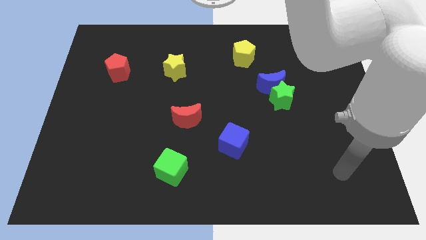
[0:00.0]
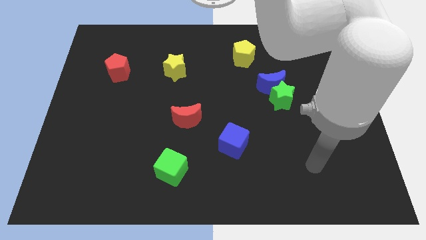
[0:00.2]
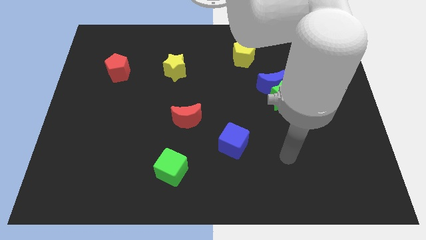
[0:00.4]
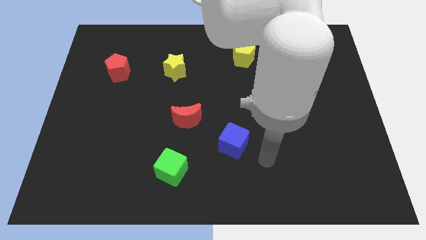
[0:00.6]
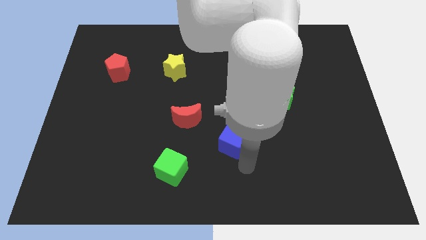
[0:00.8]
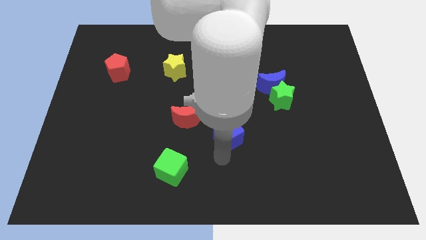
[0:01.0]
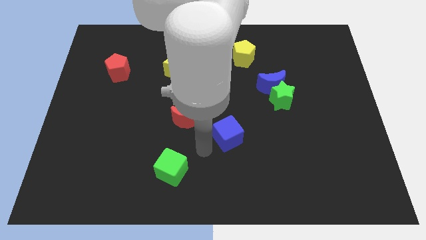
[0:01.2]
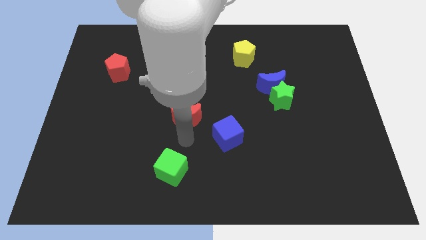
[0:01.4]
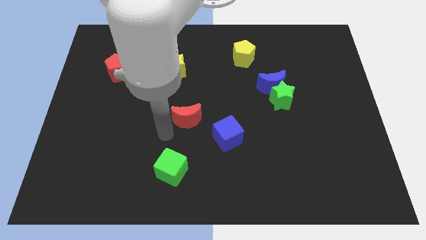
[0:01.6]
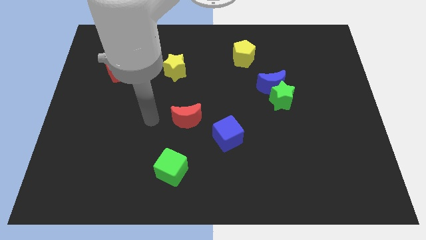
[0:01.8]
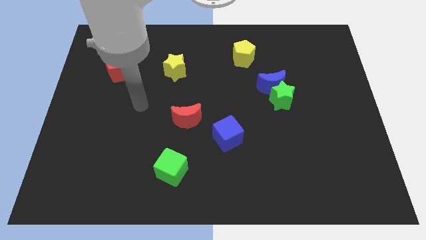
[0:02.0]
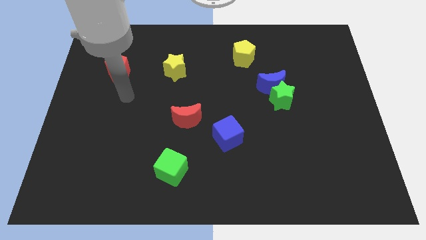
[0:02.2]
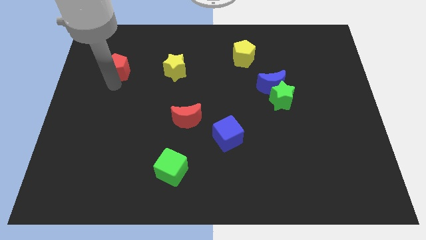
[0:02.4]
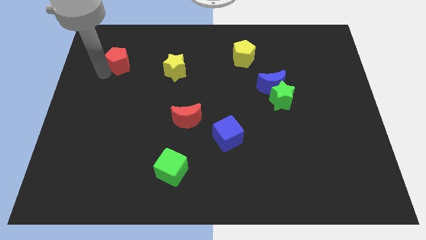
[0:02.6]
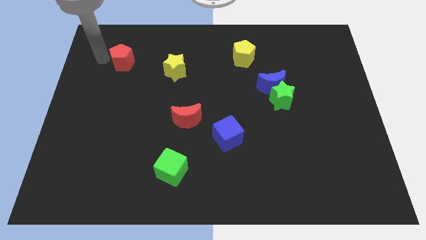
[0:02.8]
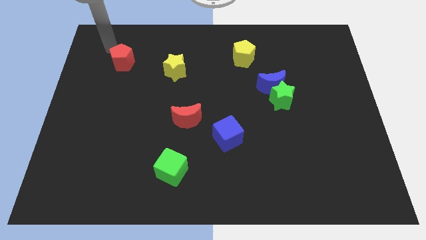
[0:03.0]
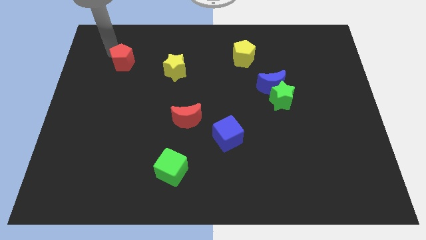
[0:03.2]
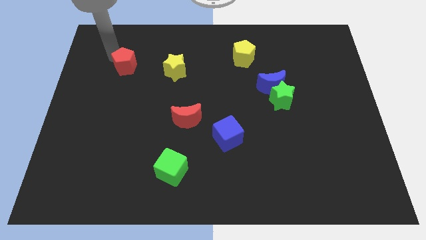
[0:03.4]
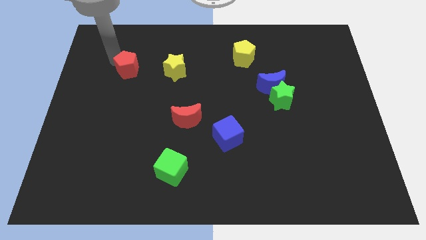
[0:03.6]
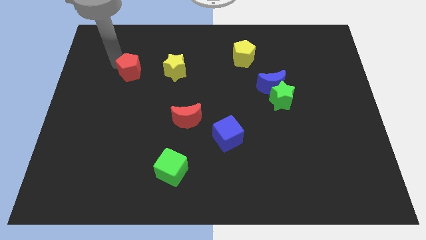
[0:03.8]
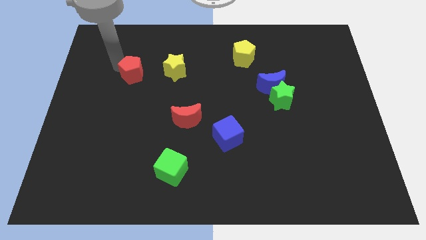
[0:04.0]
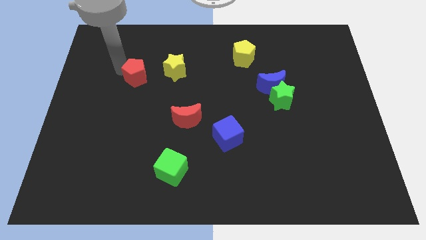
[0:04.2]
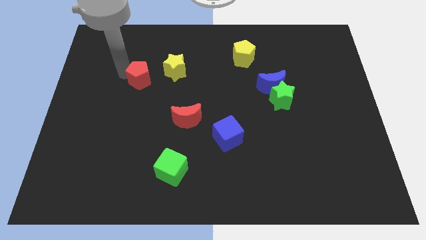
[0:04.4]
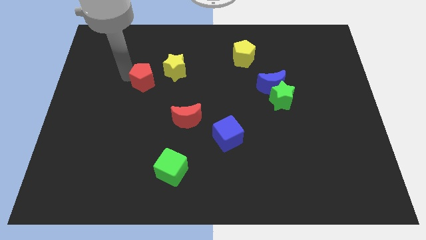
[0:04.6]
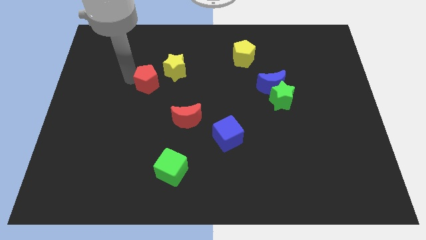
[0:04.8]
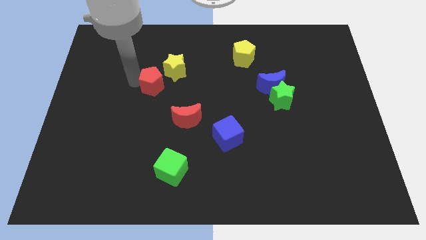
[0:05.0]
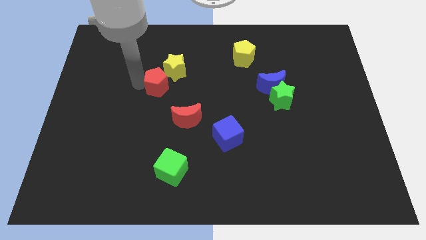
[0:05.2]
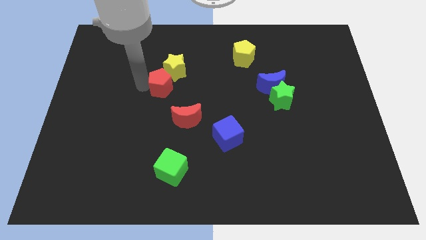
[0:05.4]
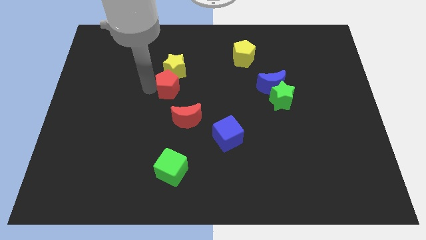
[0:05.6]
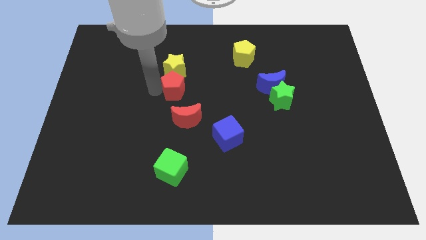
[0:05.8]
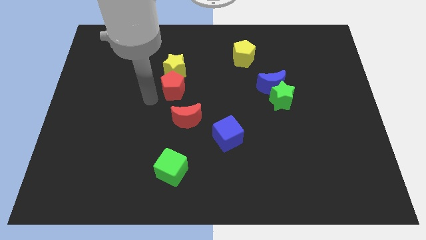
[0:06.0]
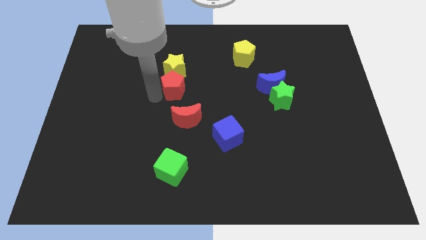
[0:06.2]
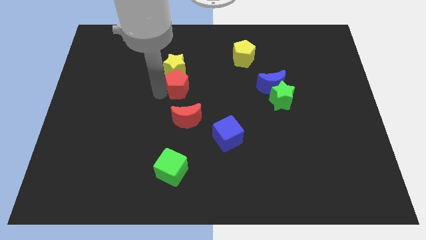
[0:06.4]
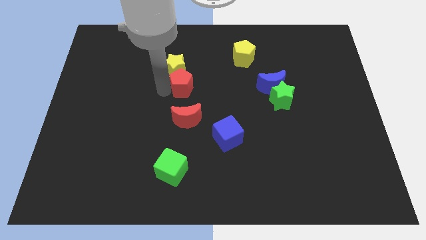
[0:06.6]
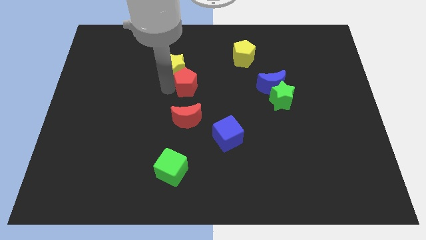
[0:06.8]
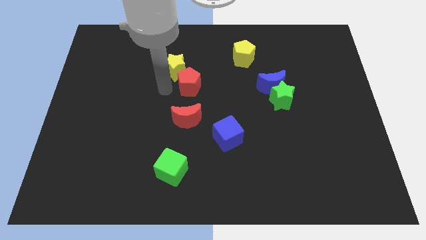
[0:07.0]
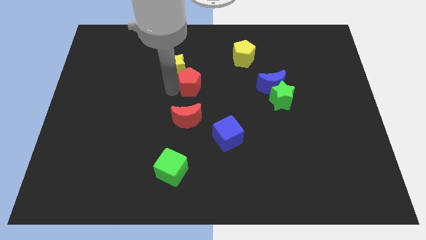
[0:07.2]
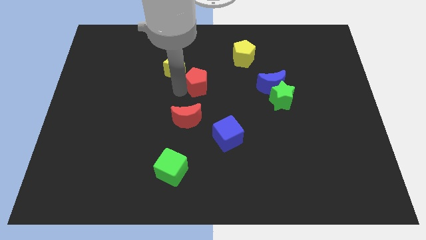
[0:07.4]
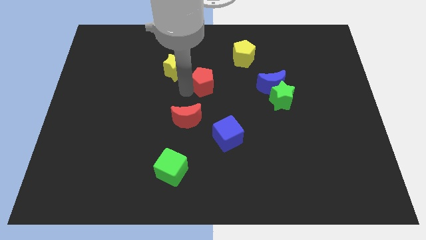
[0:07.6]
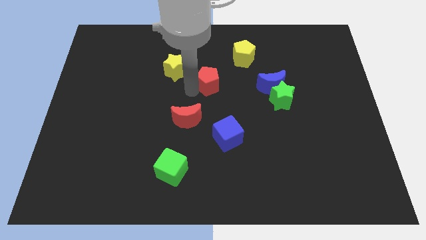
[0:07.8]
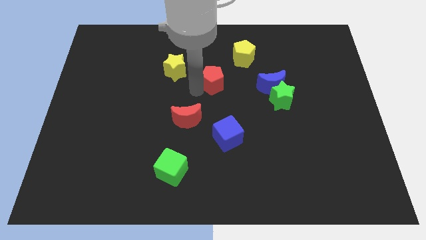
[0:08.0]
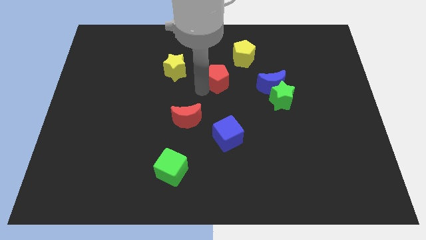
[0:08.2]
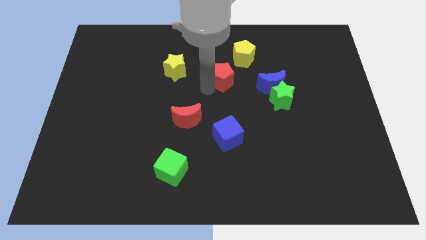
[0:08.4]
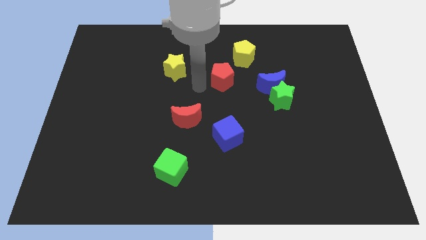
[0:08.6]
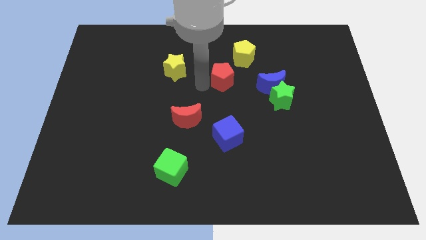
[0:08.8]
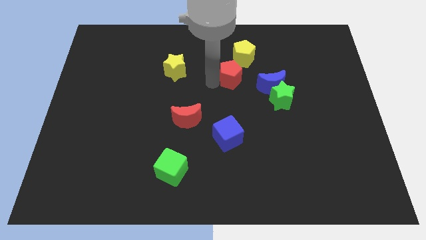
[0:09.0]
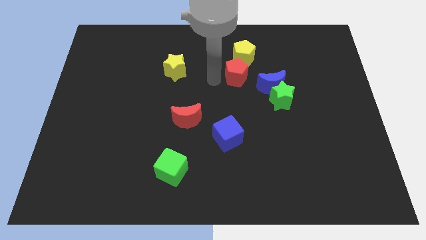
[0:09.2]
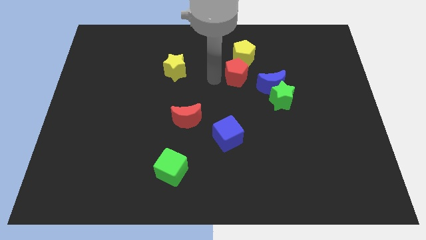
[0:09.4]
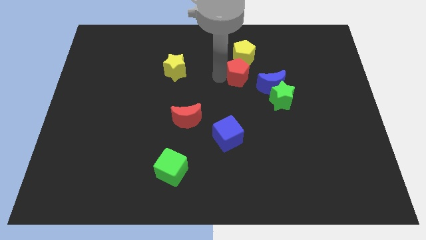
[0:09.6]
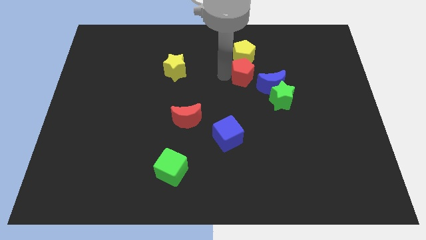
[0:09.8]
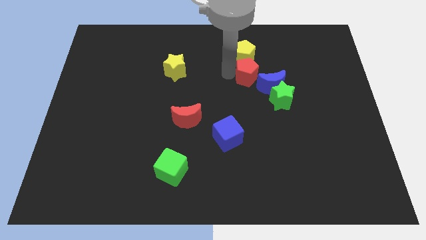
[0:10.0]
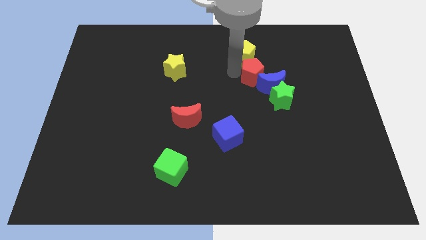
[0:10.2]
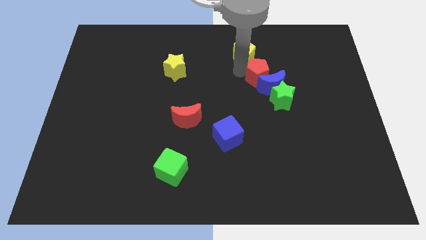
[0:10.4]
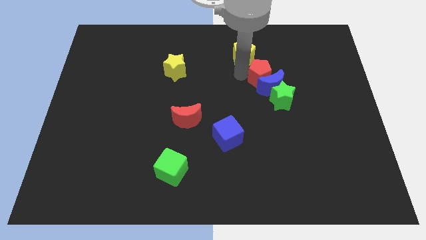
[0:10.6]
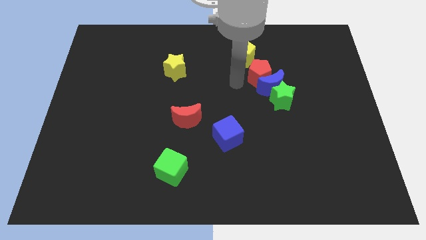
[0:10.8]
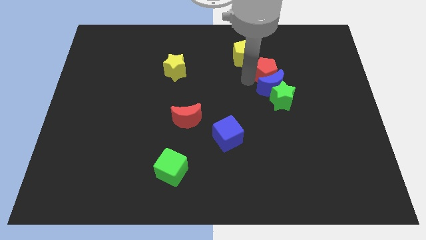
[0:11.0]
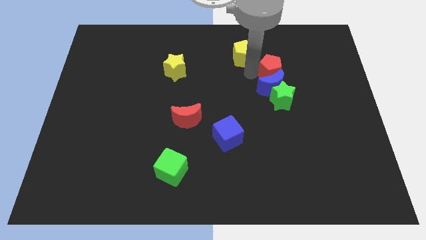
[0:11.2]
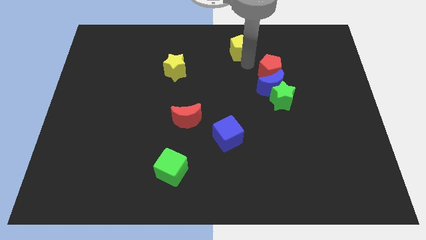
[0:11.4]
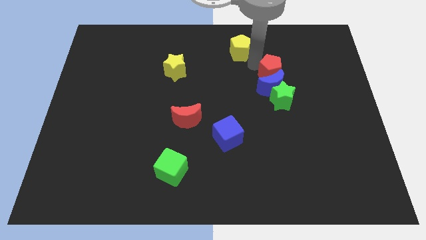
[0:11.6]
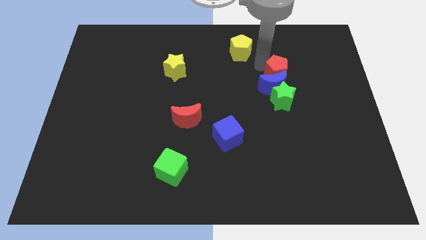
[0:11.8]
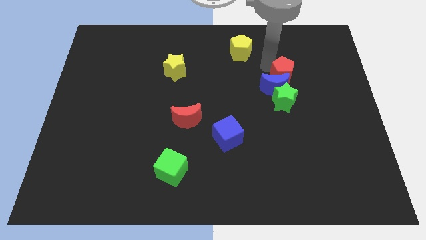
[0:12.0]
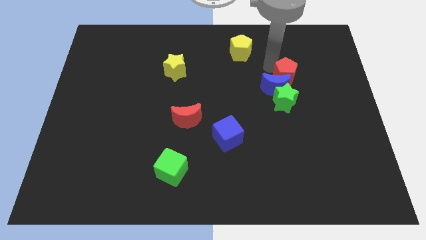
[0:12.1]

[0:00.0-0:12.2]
put the red pentagon diagonally up and to the right of the green star

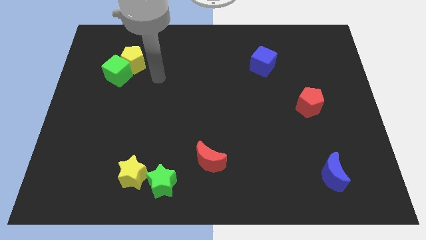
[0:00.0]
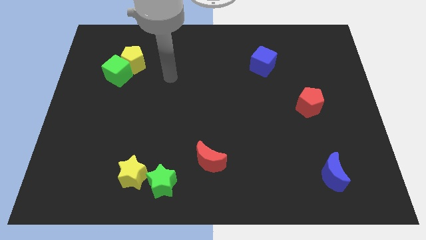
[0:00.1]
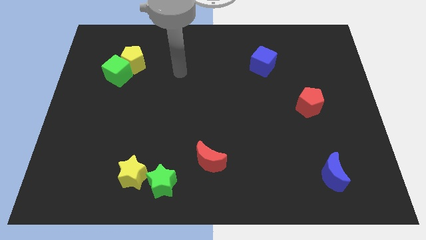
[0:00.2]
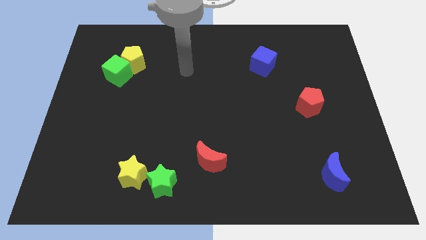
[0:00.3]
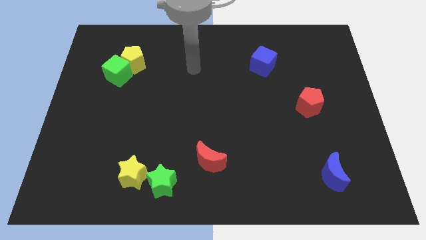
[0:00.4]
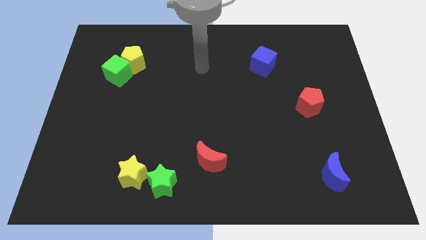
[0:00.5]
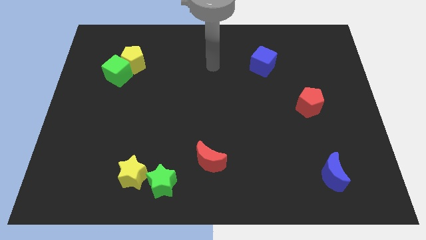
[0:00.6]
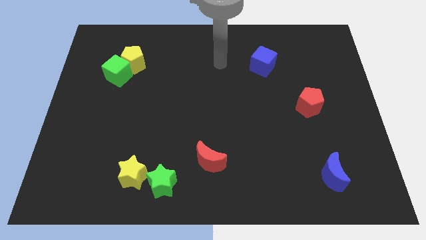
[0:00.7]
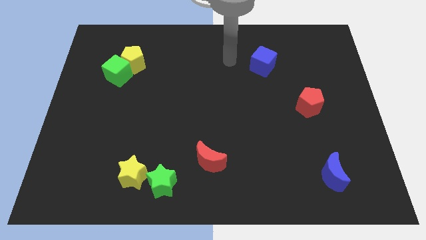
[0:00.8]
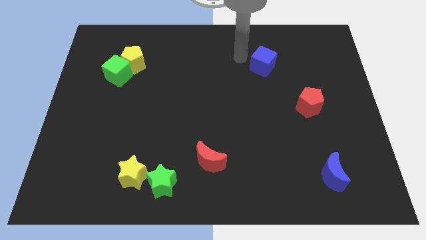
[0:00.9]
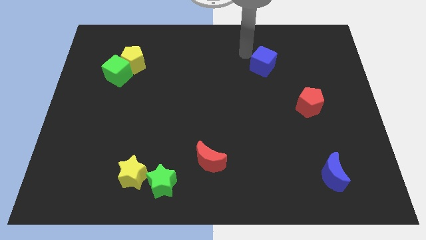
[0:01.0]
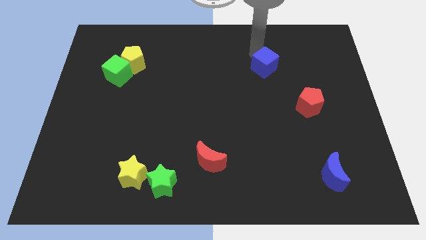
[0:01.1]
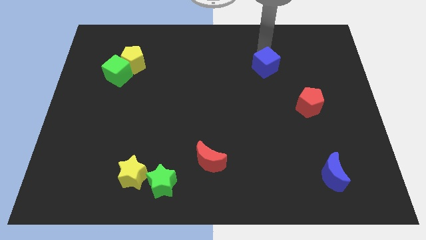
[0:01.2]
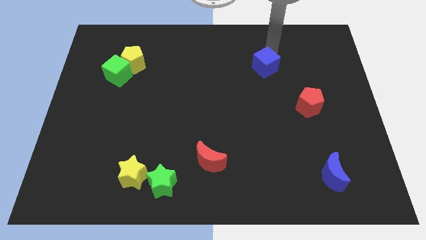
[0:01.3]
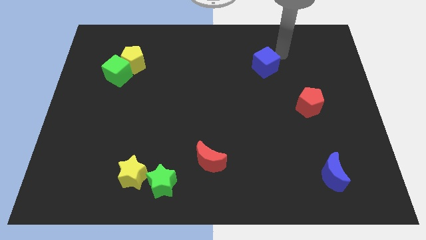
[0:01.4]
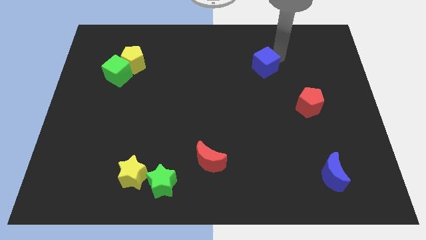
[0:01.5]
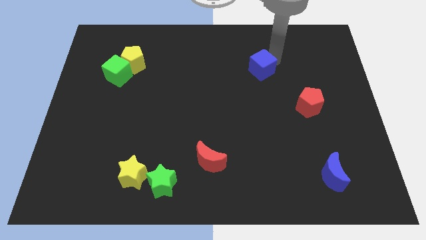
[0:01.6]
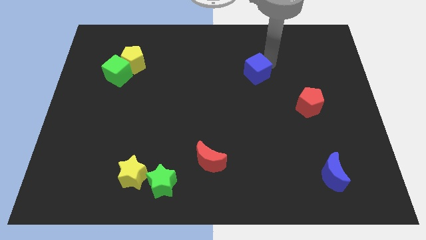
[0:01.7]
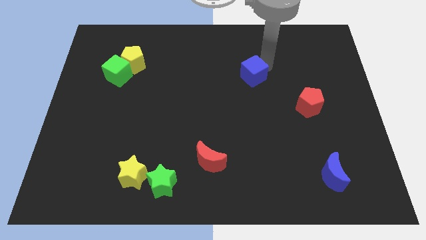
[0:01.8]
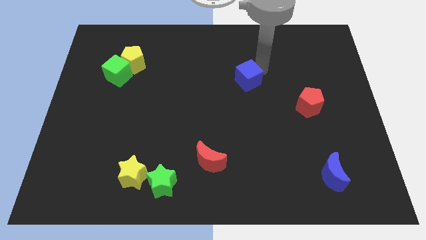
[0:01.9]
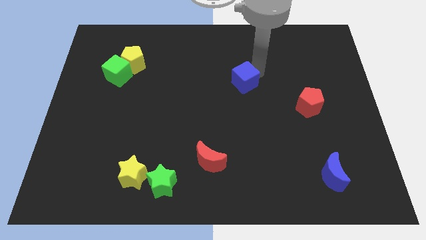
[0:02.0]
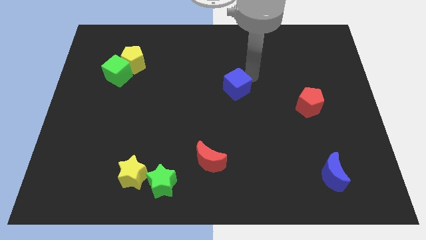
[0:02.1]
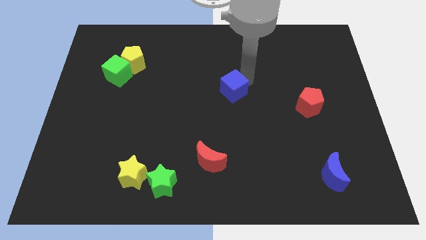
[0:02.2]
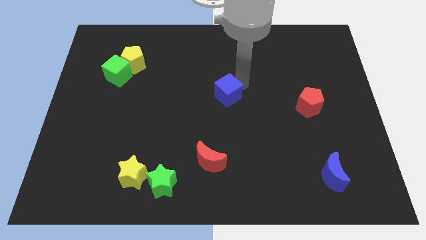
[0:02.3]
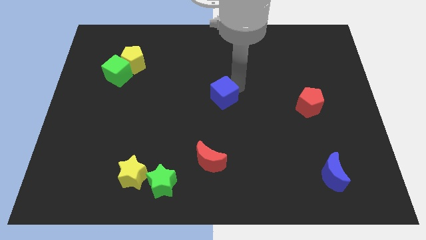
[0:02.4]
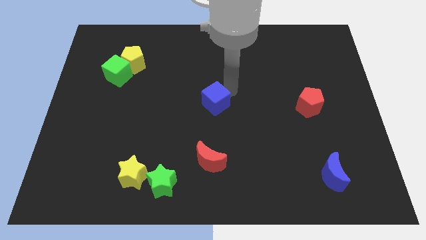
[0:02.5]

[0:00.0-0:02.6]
slide the blue cube to the top side of the red moon
